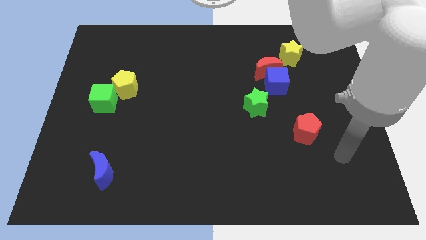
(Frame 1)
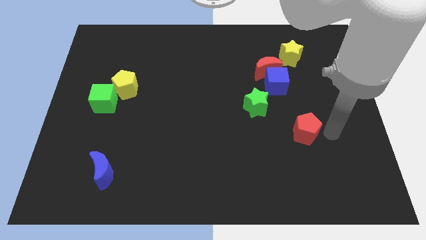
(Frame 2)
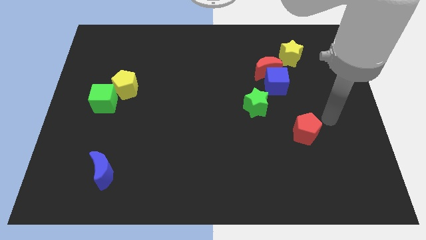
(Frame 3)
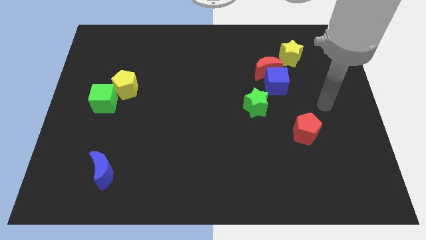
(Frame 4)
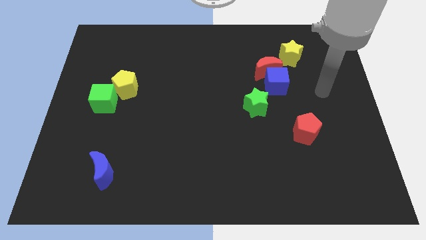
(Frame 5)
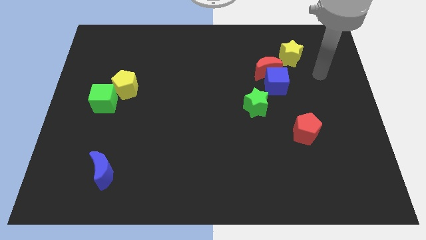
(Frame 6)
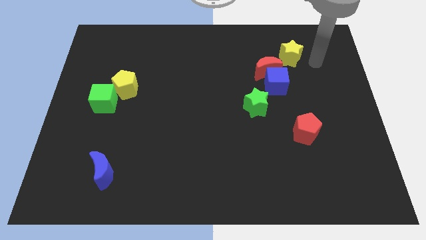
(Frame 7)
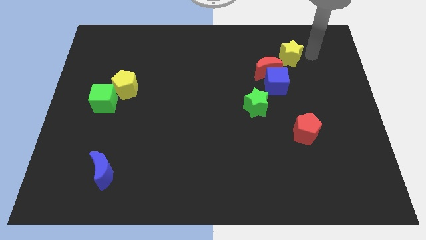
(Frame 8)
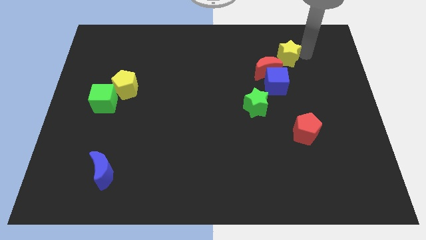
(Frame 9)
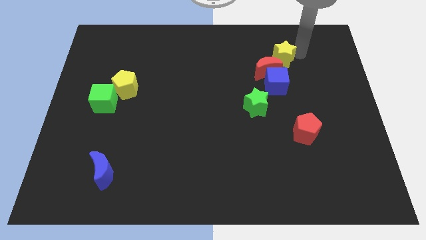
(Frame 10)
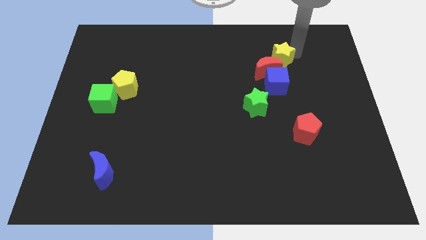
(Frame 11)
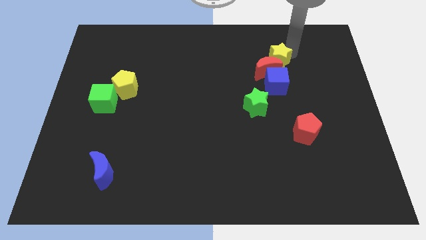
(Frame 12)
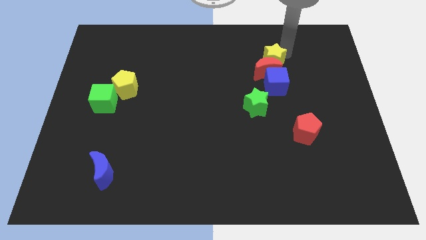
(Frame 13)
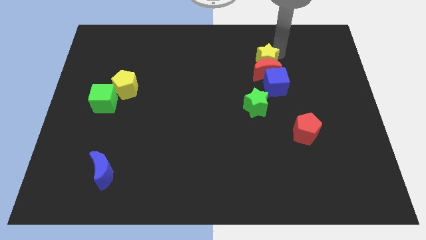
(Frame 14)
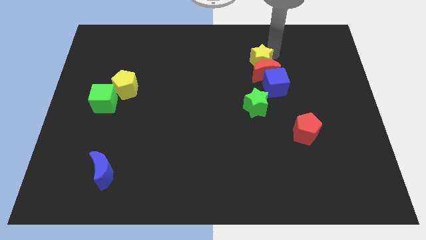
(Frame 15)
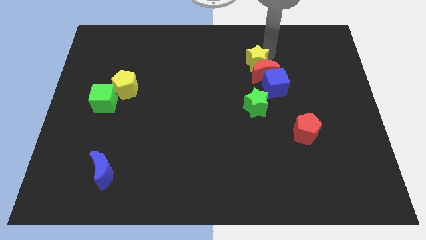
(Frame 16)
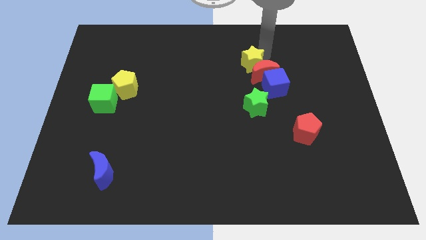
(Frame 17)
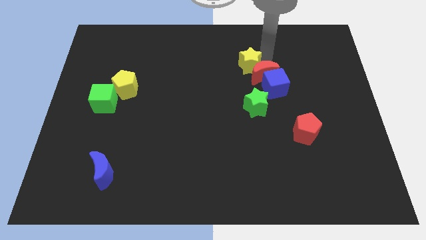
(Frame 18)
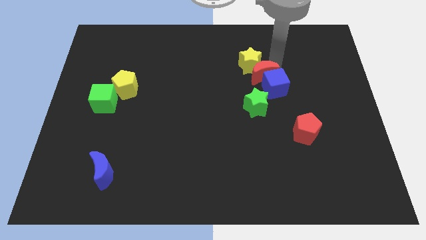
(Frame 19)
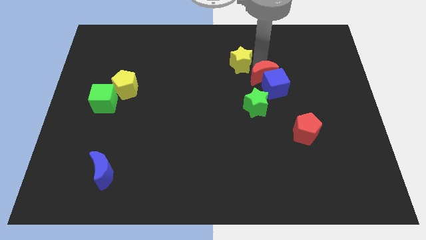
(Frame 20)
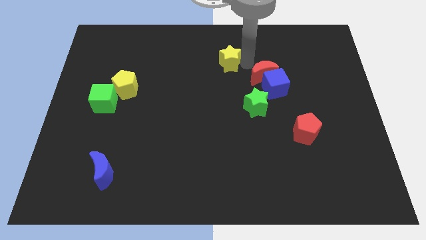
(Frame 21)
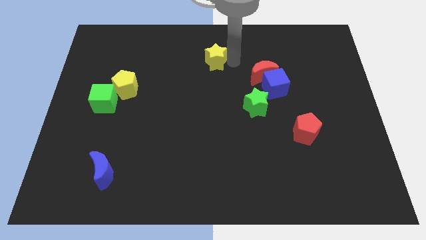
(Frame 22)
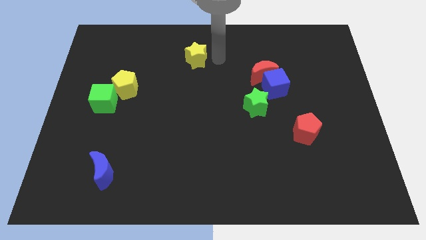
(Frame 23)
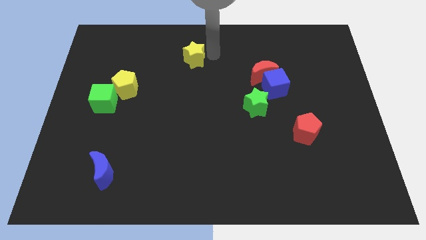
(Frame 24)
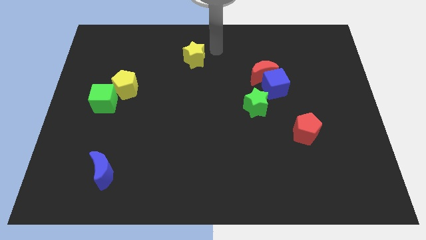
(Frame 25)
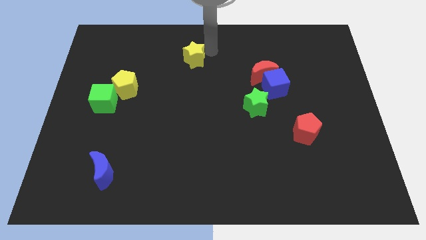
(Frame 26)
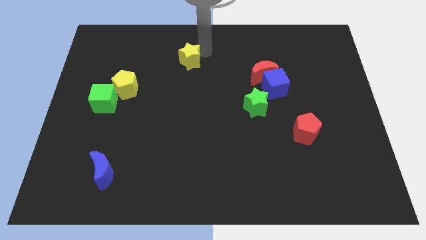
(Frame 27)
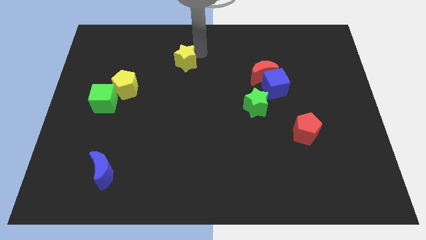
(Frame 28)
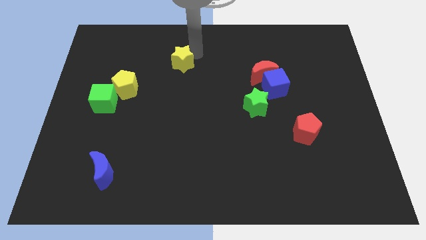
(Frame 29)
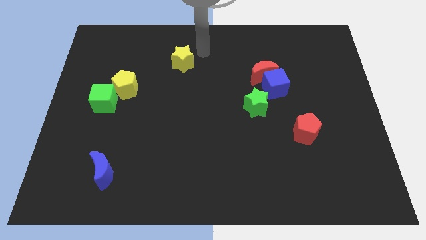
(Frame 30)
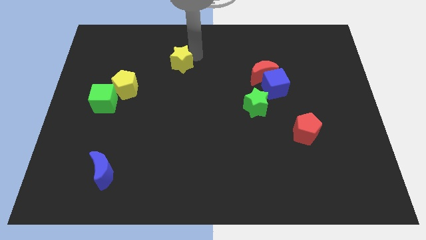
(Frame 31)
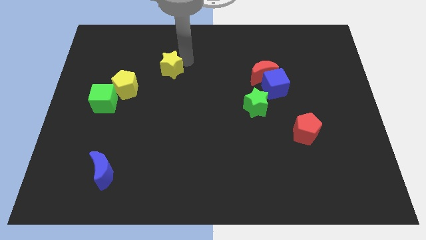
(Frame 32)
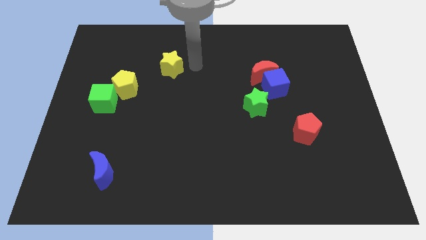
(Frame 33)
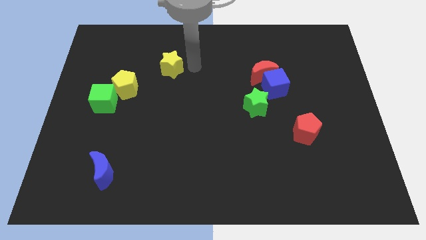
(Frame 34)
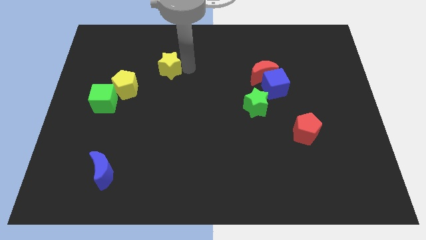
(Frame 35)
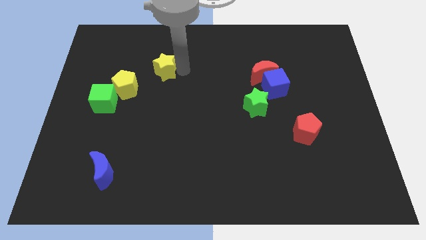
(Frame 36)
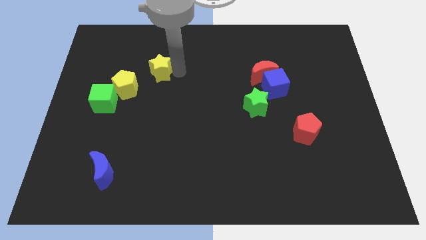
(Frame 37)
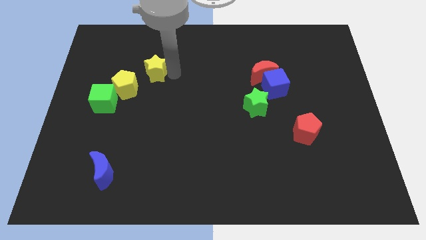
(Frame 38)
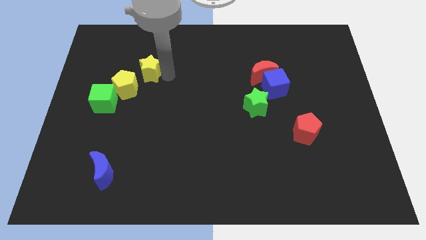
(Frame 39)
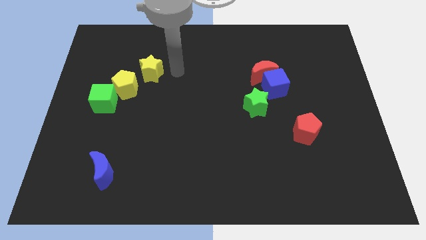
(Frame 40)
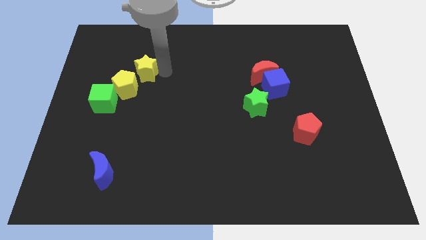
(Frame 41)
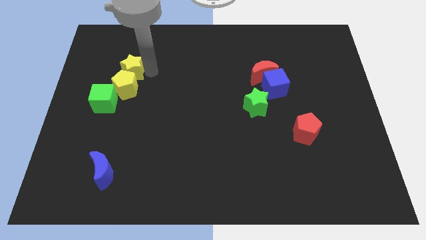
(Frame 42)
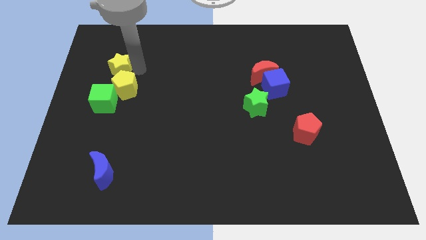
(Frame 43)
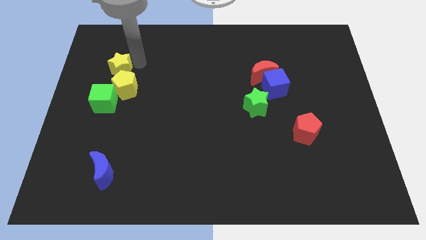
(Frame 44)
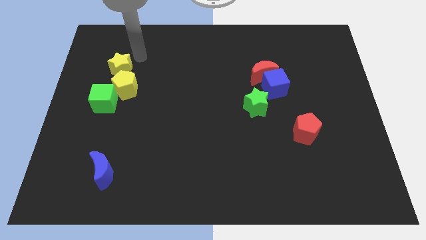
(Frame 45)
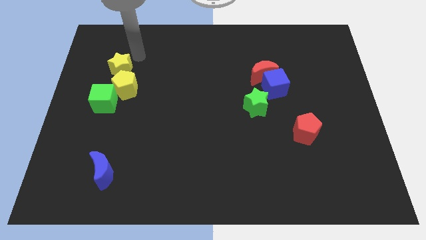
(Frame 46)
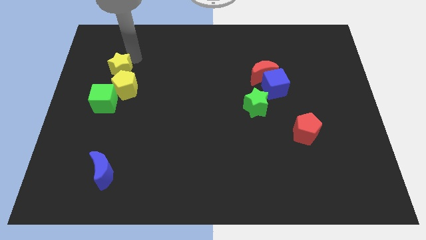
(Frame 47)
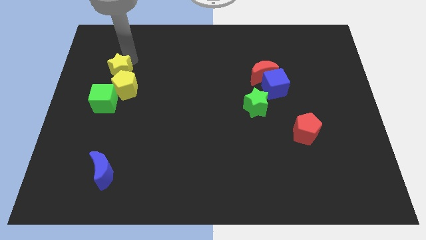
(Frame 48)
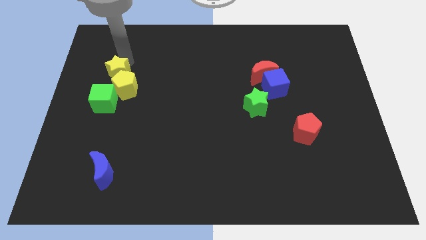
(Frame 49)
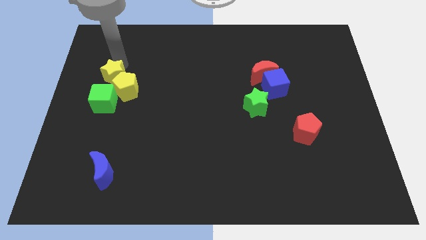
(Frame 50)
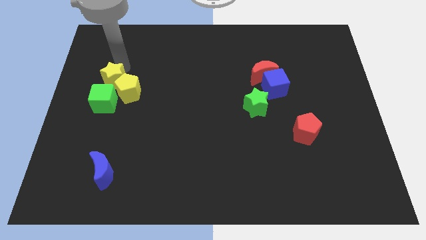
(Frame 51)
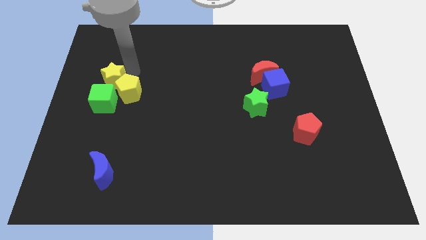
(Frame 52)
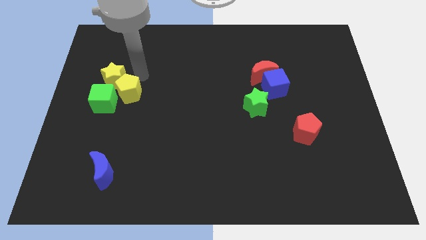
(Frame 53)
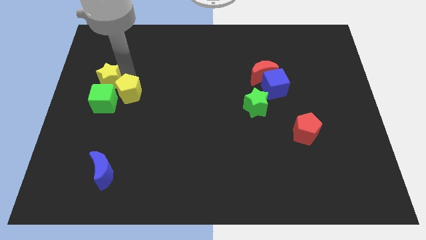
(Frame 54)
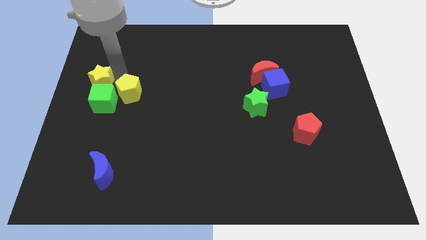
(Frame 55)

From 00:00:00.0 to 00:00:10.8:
put the yellow star to the left side
